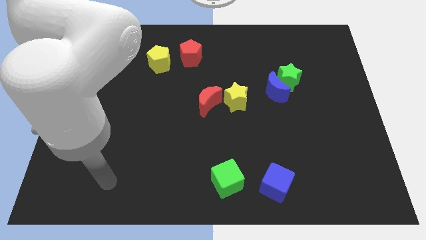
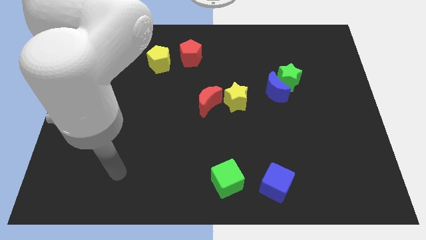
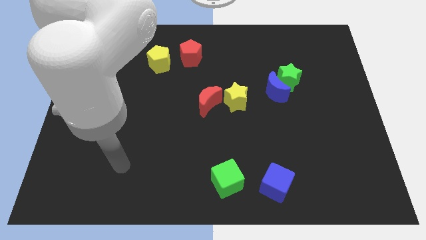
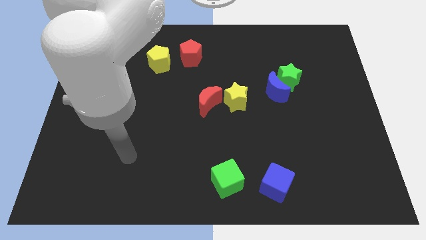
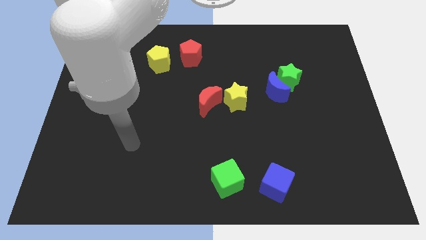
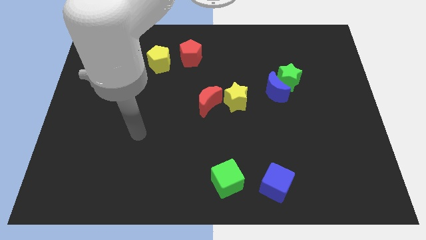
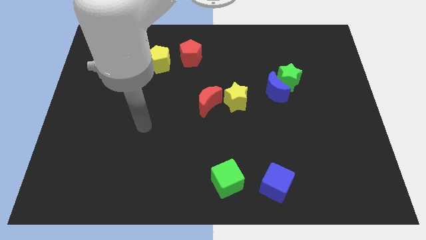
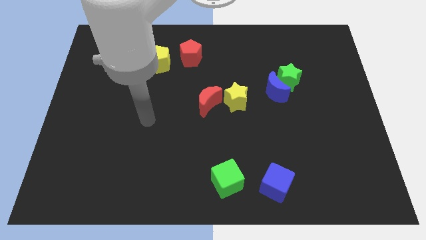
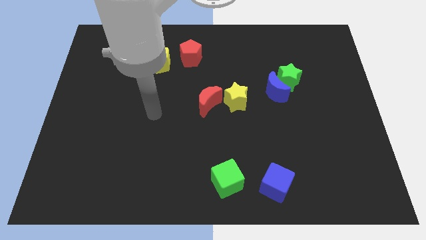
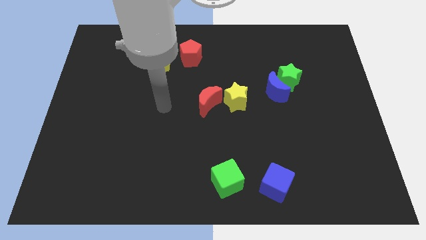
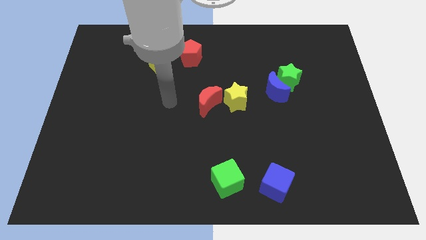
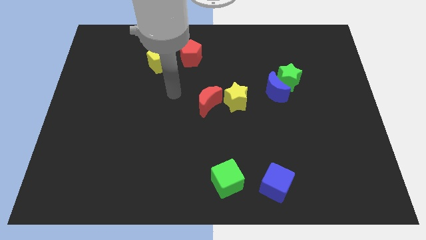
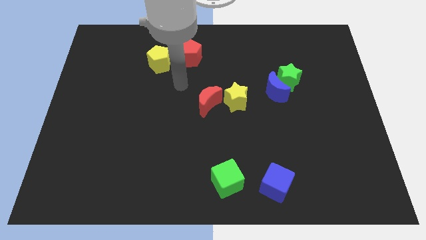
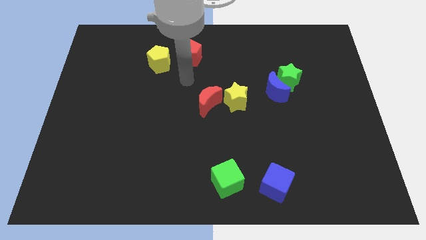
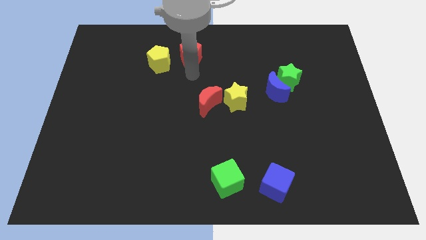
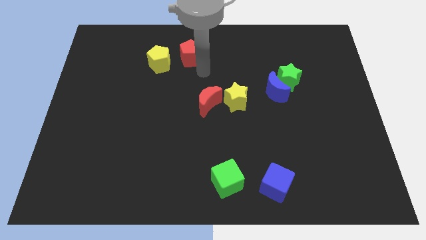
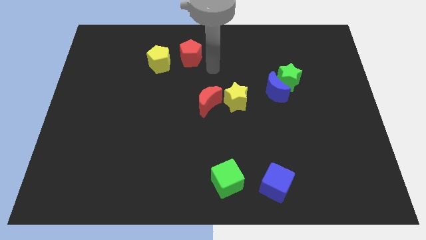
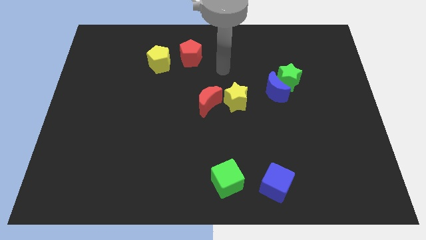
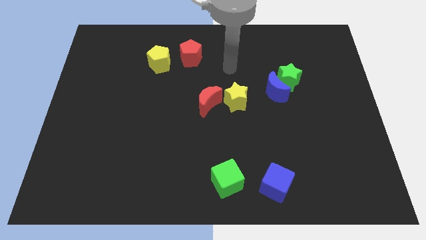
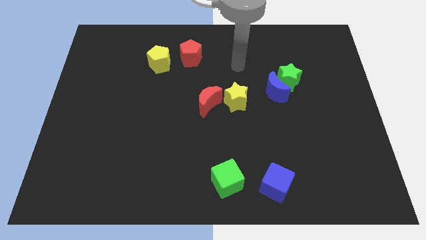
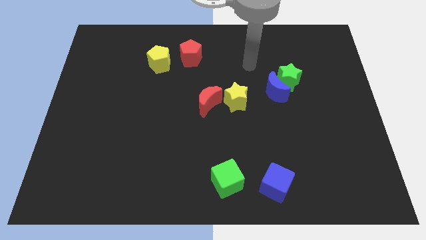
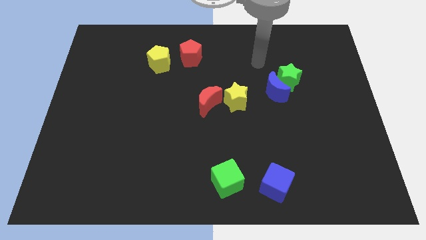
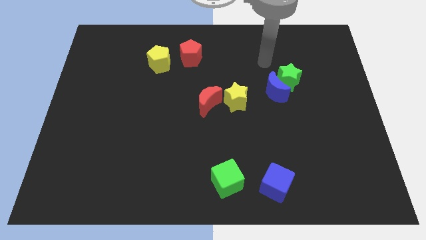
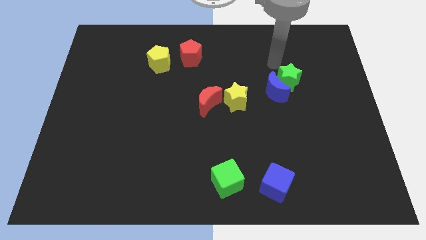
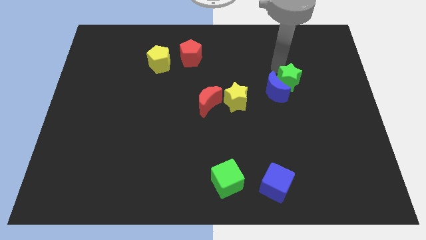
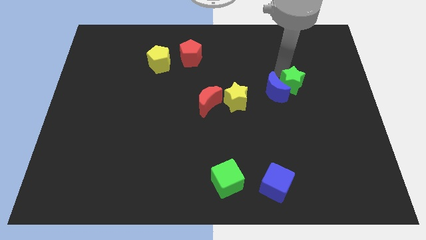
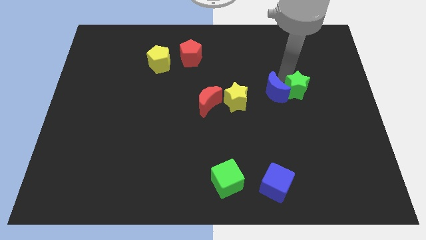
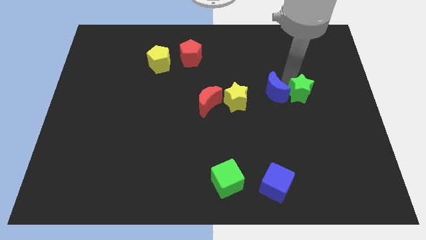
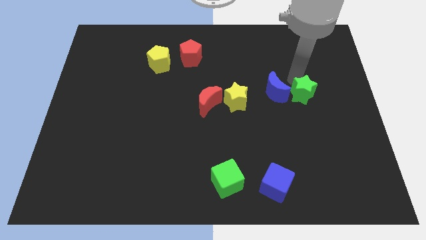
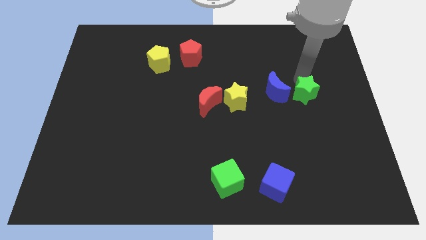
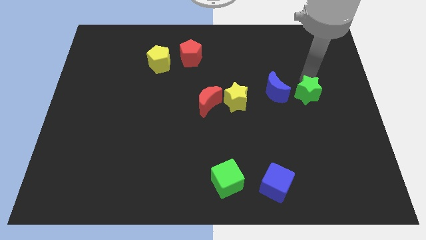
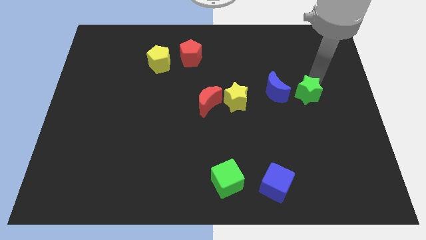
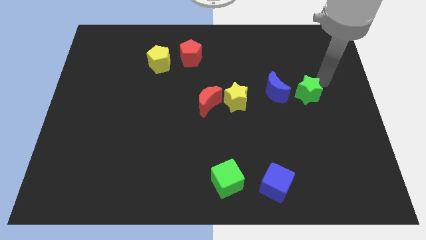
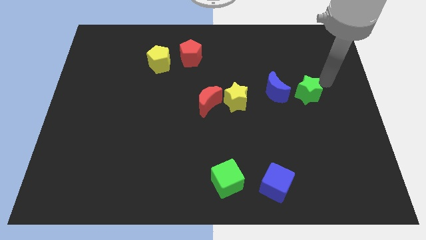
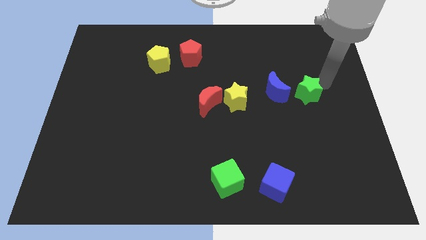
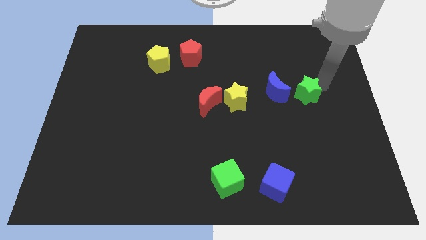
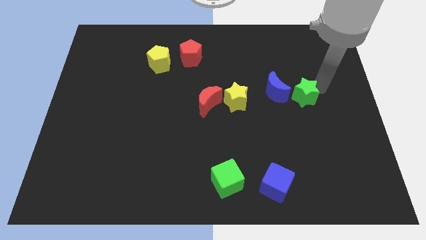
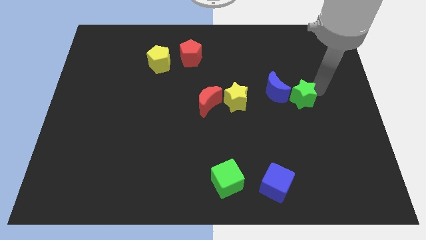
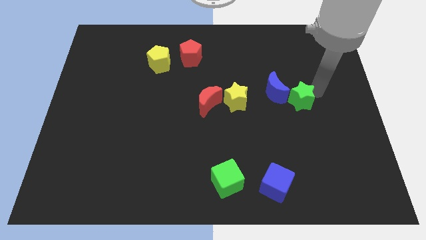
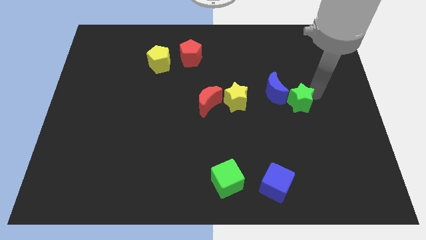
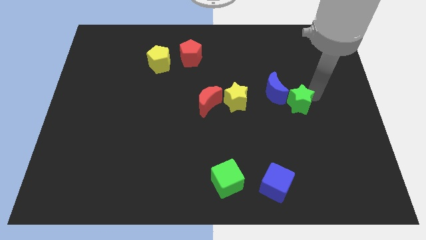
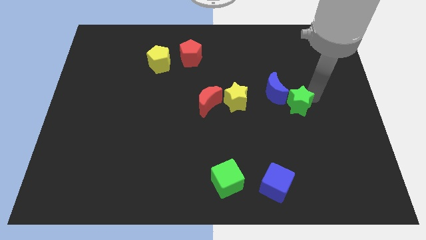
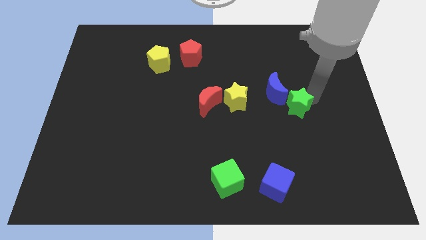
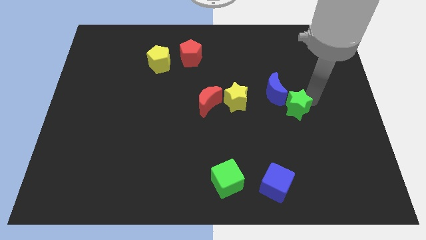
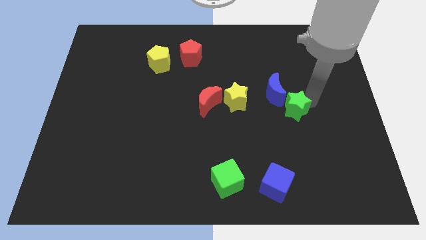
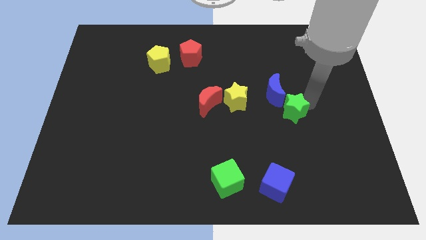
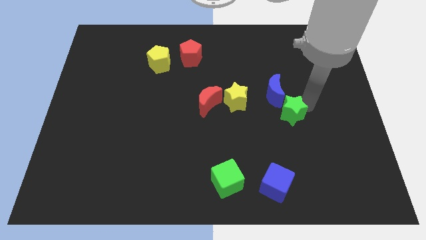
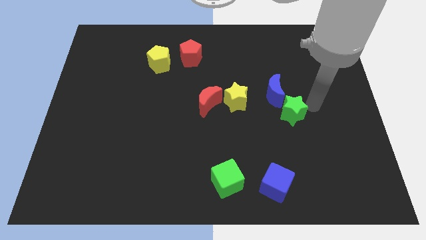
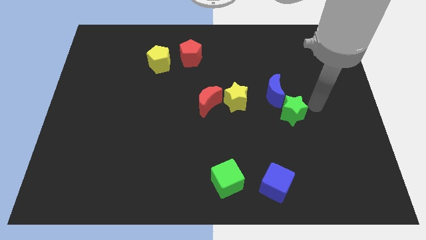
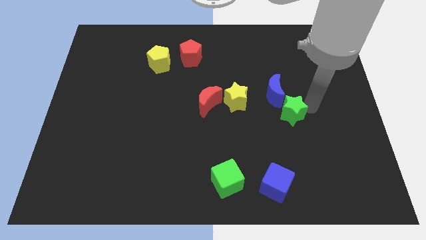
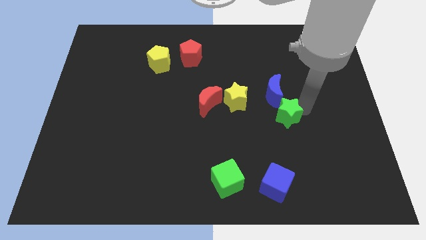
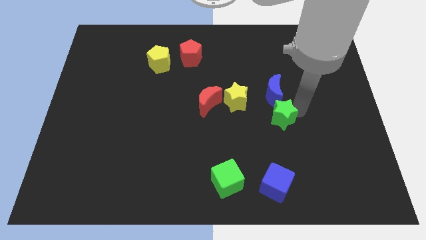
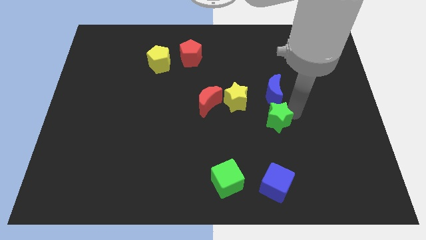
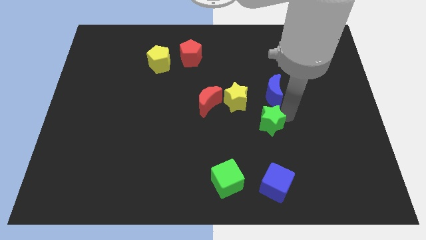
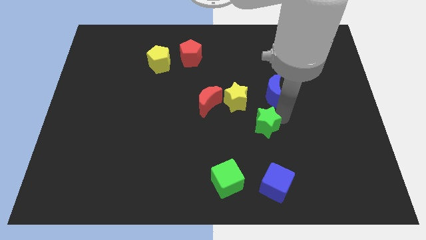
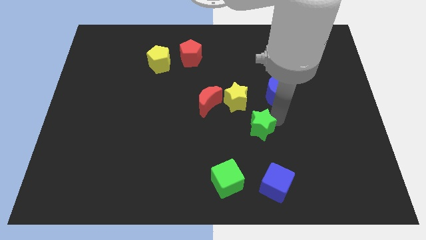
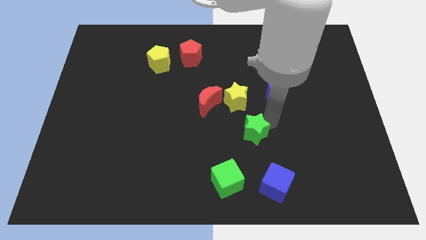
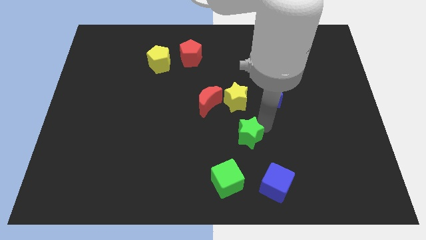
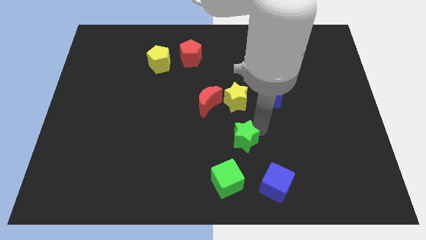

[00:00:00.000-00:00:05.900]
slide the green star down and then left

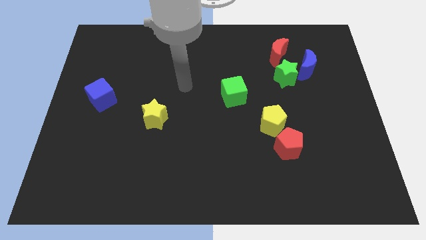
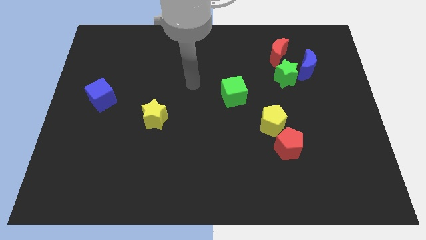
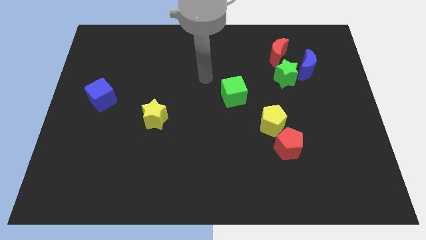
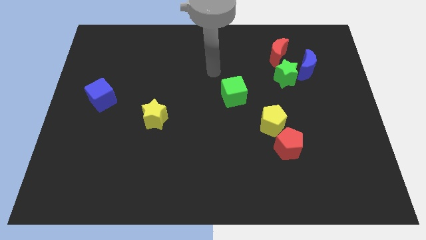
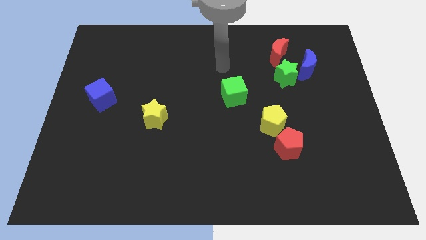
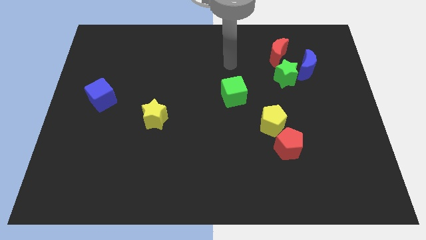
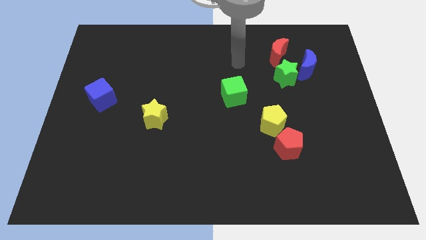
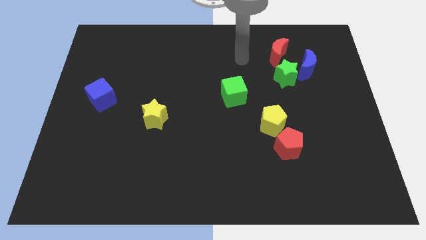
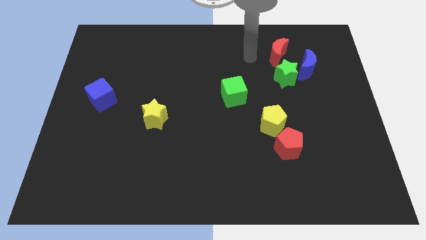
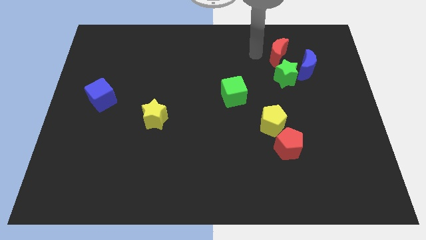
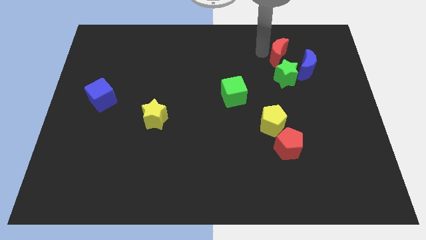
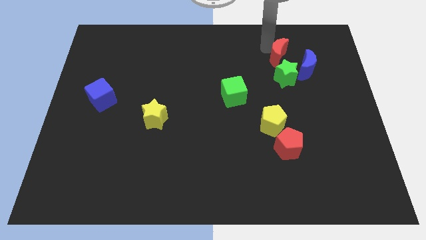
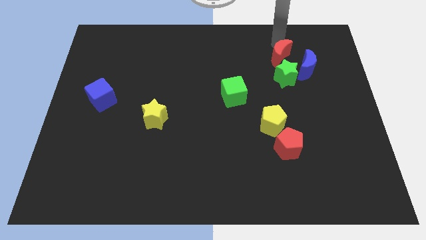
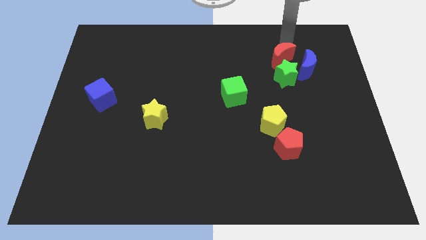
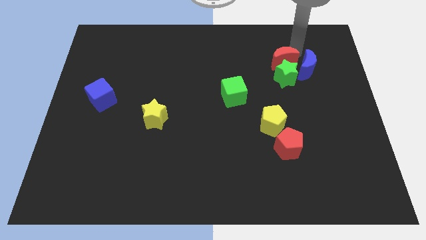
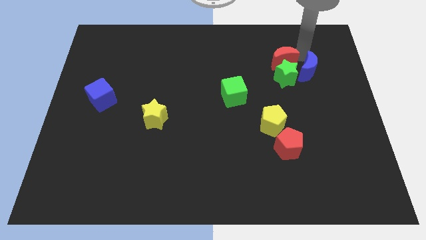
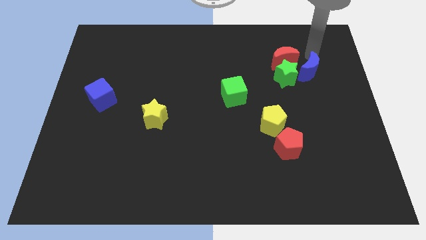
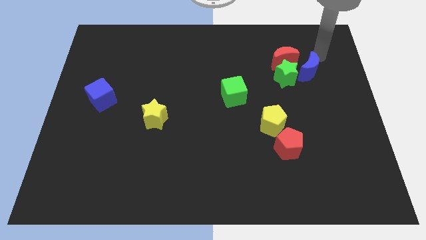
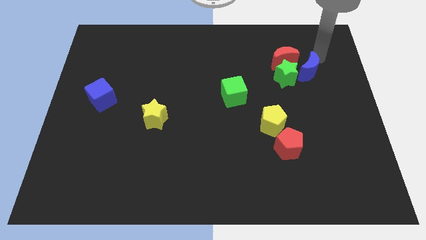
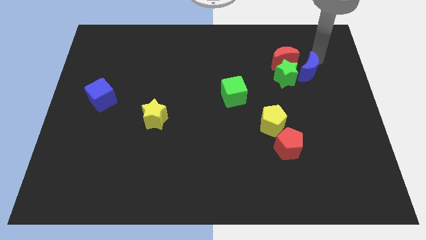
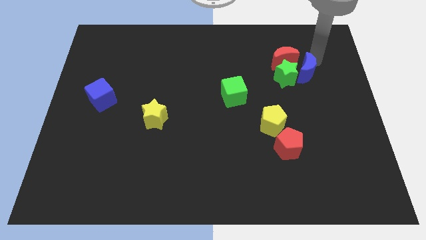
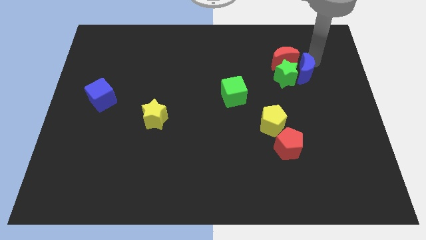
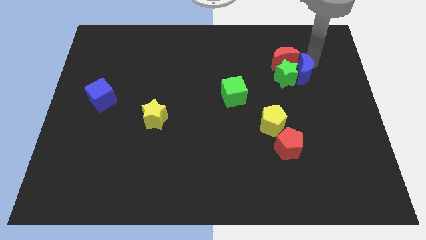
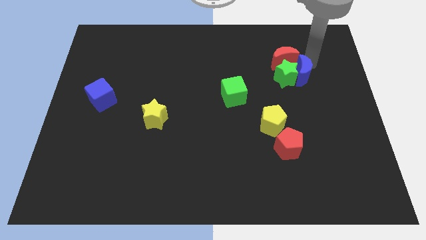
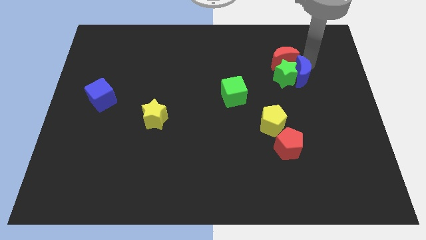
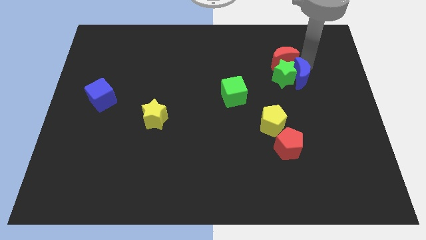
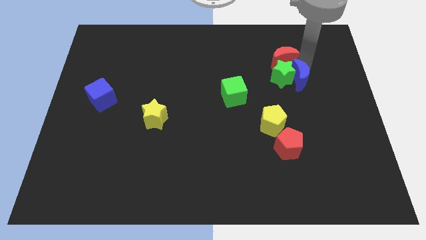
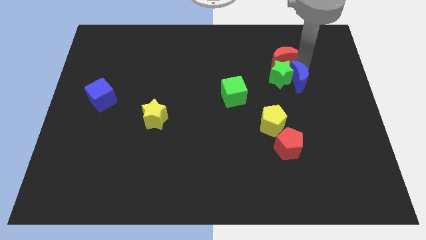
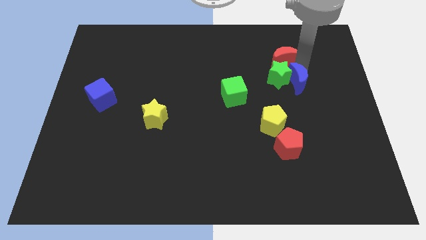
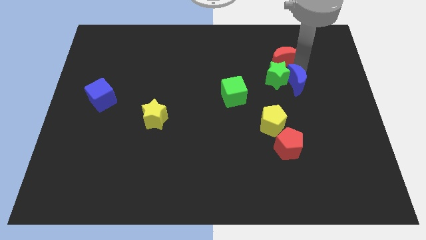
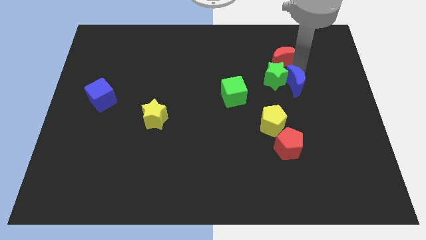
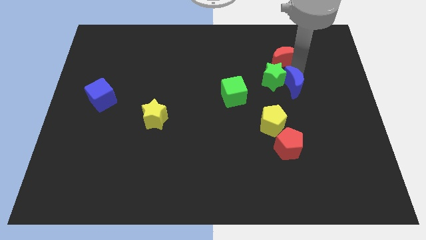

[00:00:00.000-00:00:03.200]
move the blue moon down and left a bit
